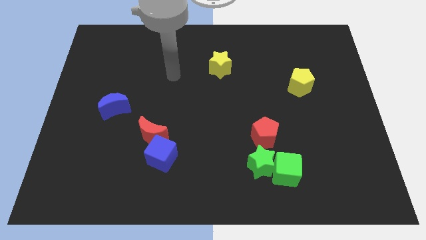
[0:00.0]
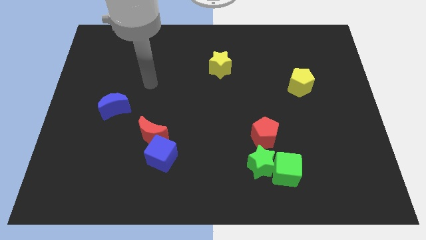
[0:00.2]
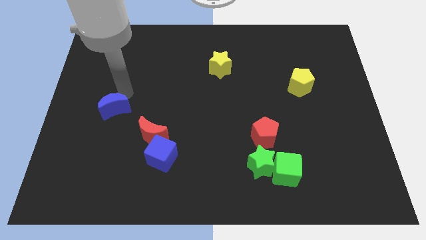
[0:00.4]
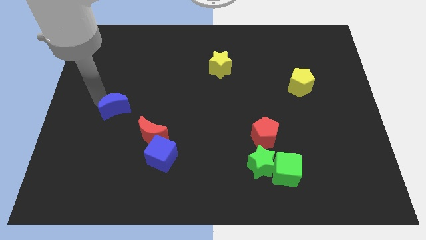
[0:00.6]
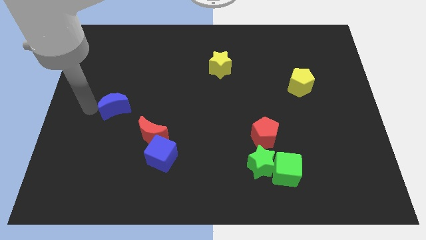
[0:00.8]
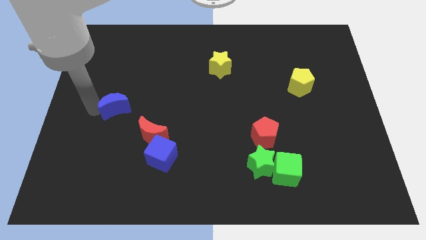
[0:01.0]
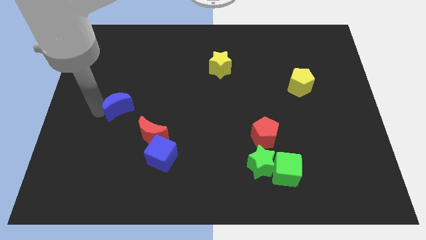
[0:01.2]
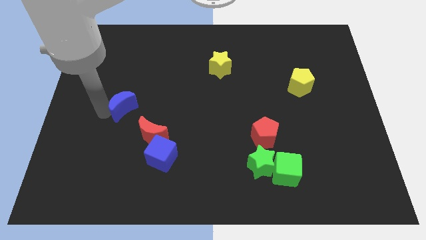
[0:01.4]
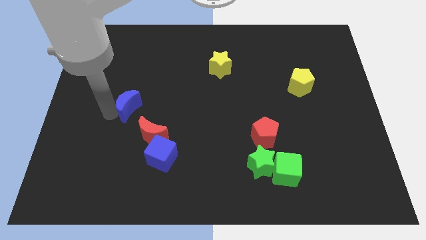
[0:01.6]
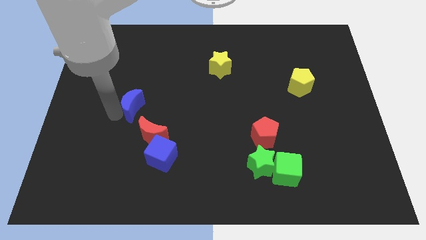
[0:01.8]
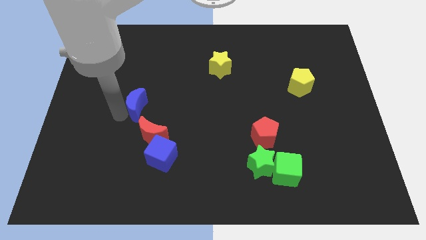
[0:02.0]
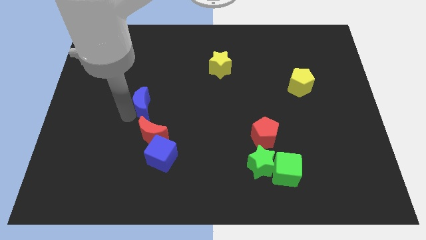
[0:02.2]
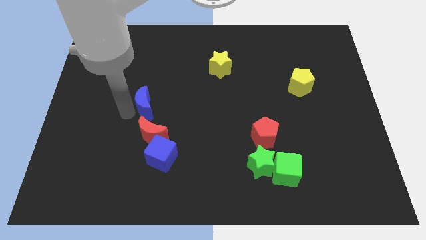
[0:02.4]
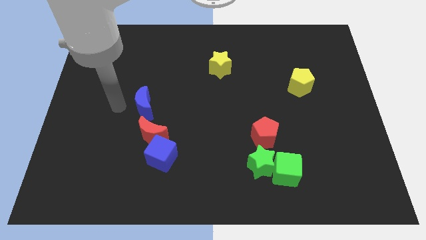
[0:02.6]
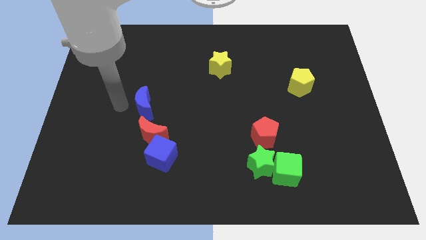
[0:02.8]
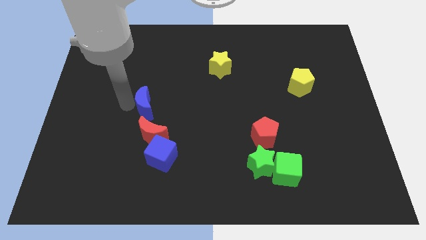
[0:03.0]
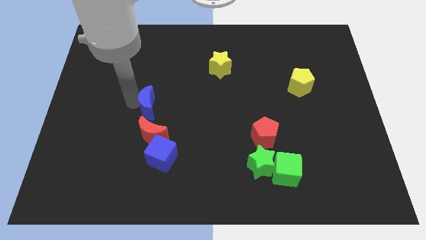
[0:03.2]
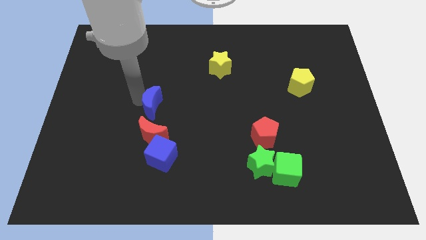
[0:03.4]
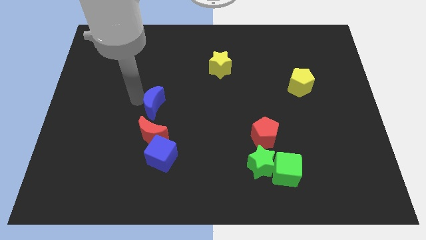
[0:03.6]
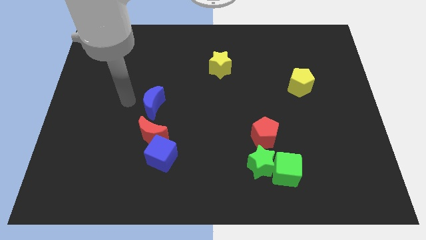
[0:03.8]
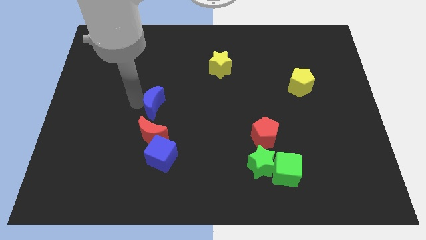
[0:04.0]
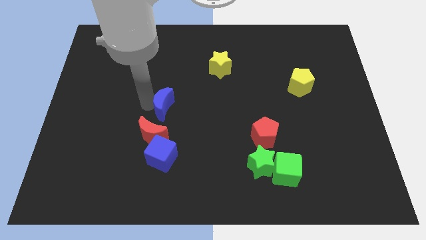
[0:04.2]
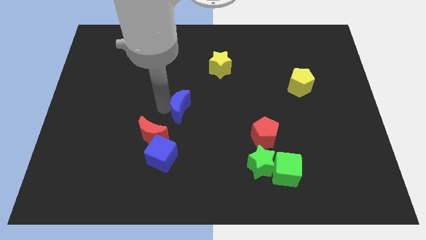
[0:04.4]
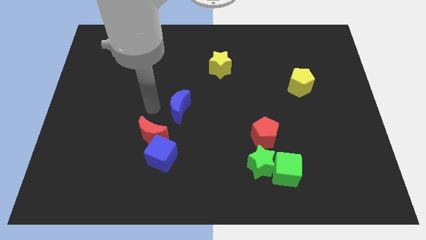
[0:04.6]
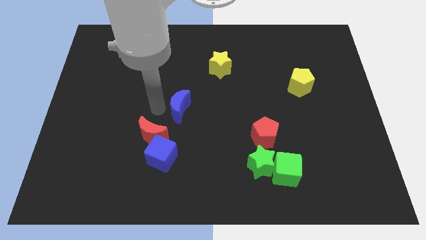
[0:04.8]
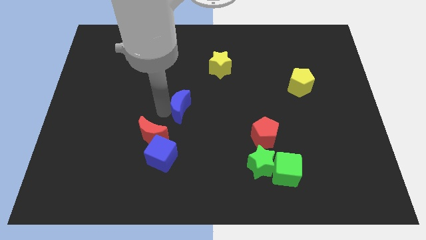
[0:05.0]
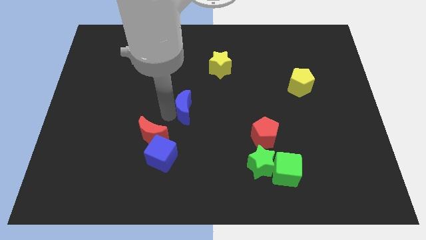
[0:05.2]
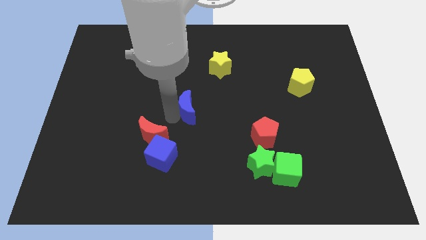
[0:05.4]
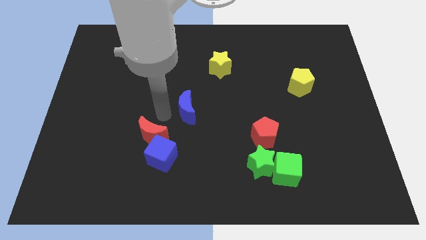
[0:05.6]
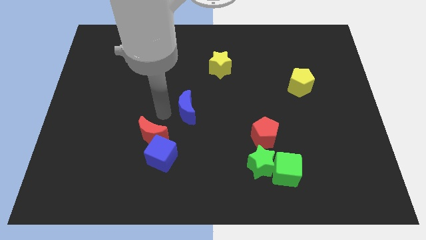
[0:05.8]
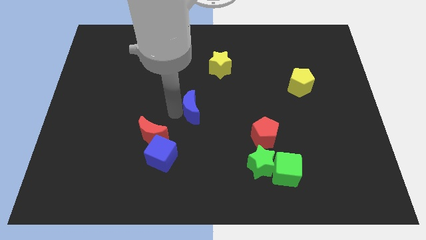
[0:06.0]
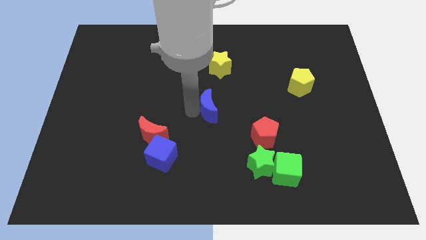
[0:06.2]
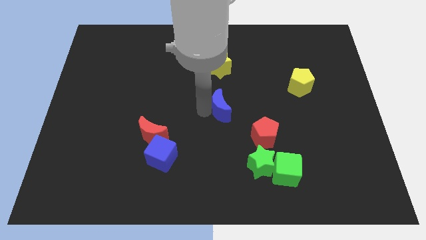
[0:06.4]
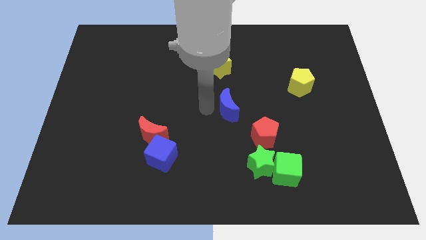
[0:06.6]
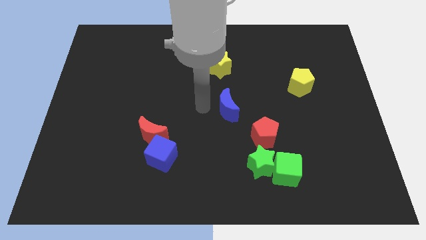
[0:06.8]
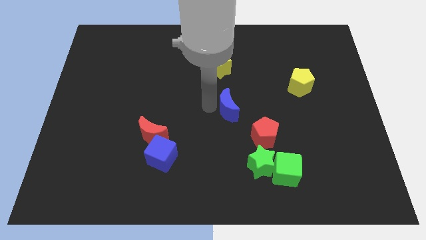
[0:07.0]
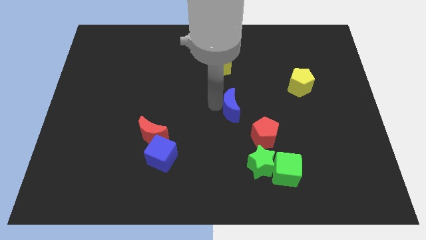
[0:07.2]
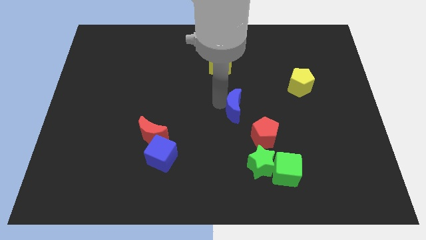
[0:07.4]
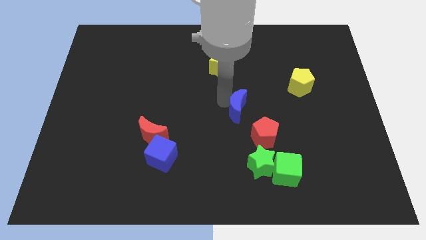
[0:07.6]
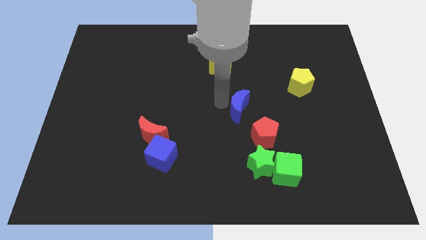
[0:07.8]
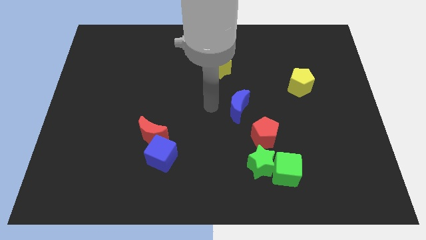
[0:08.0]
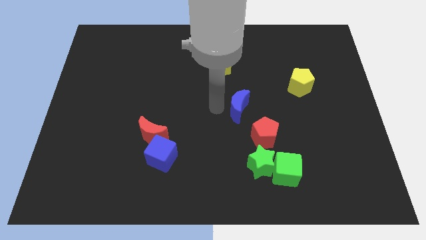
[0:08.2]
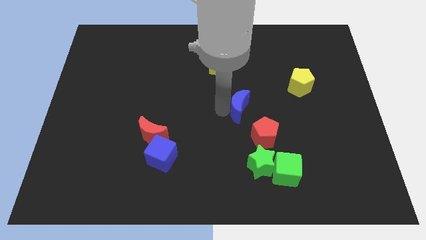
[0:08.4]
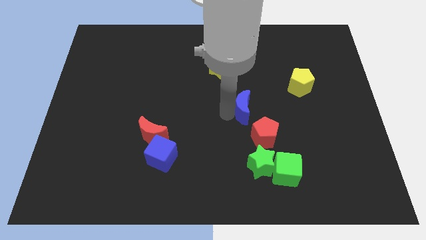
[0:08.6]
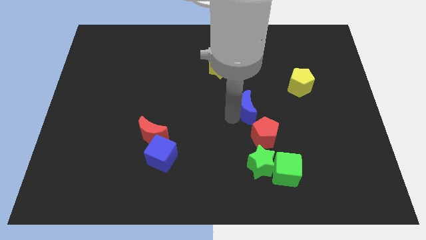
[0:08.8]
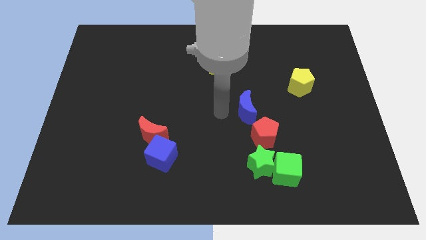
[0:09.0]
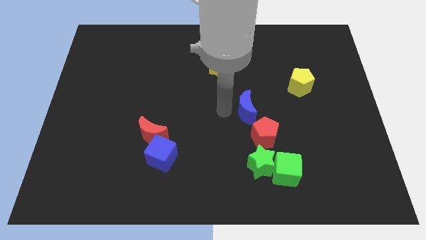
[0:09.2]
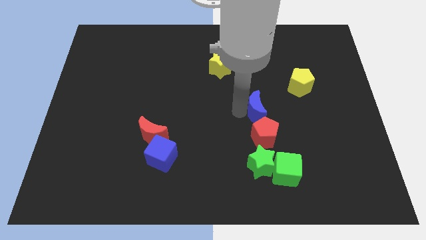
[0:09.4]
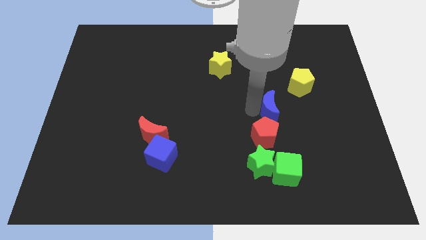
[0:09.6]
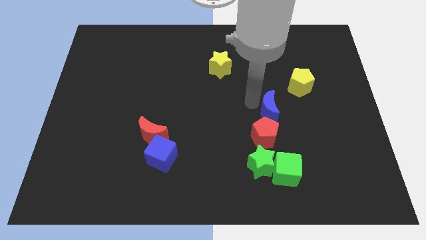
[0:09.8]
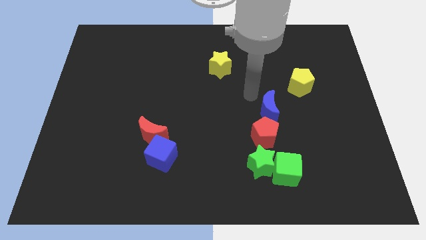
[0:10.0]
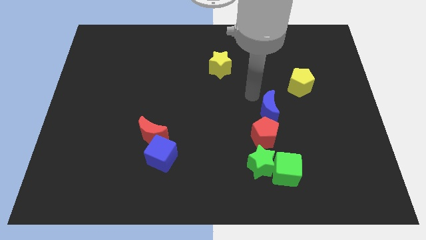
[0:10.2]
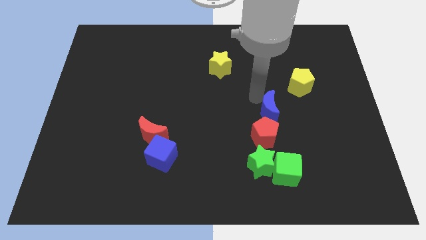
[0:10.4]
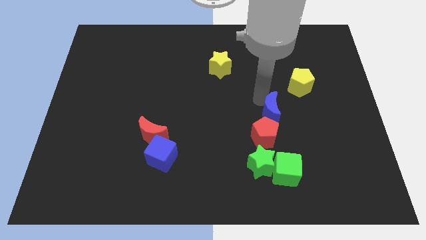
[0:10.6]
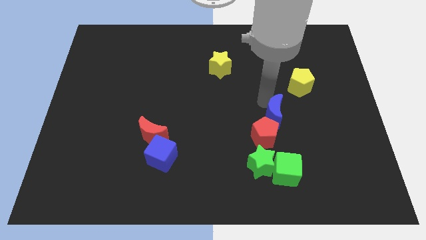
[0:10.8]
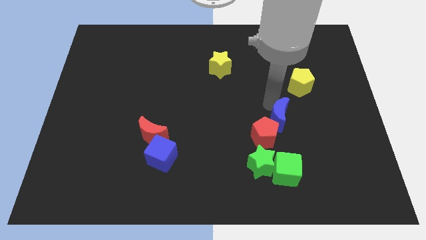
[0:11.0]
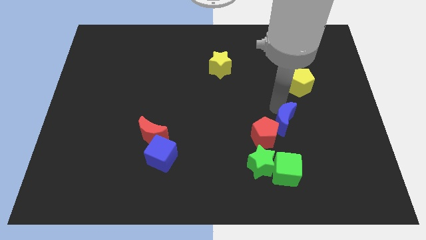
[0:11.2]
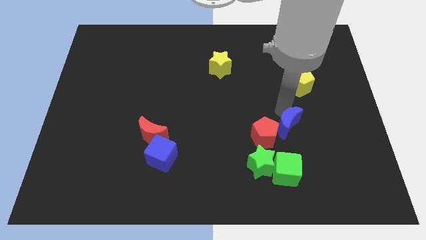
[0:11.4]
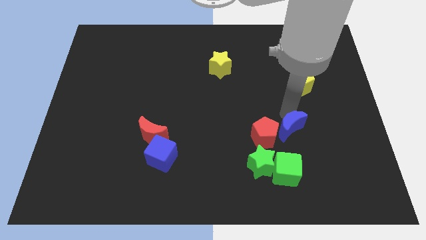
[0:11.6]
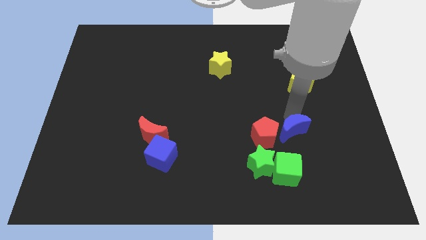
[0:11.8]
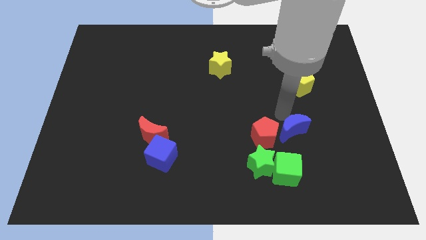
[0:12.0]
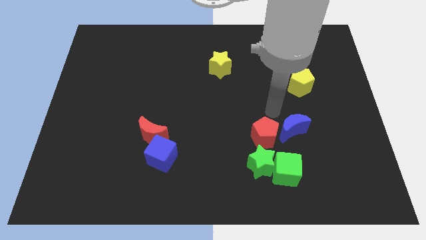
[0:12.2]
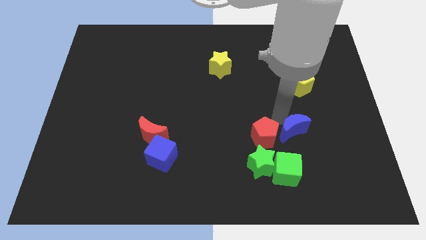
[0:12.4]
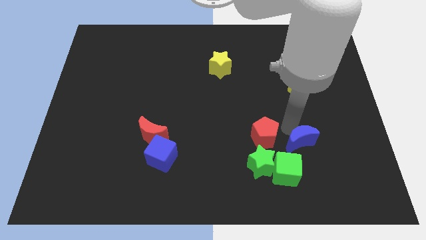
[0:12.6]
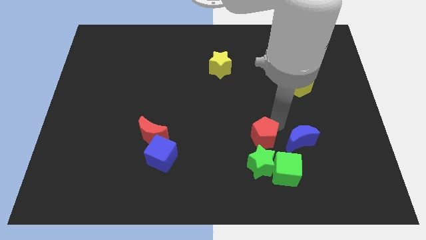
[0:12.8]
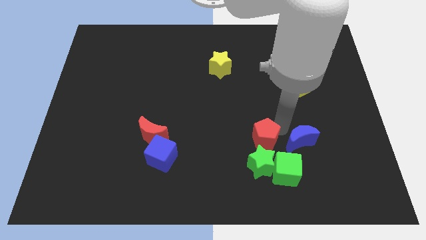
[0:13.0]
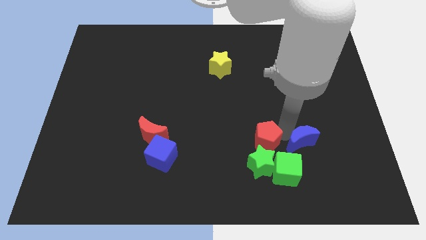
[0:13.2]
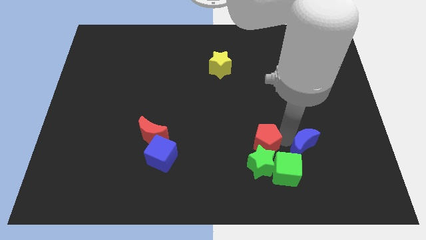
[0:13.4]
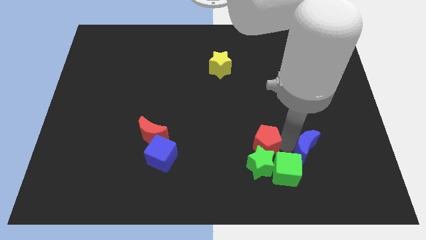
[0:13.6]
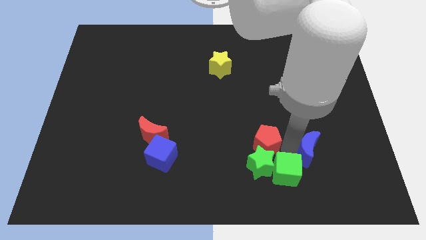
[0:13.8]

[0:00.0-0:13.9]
move the blue moon to the right side of the green cube
